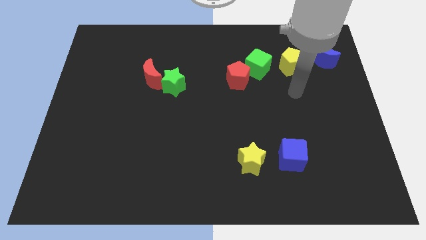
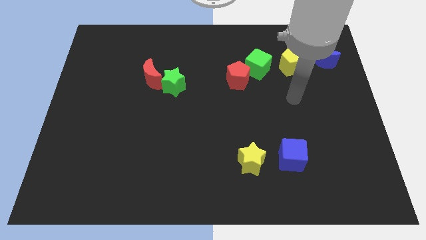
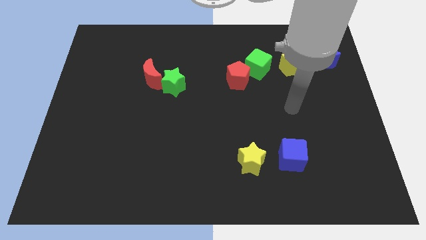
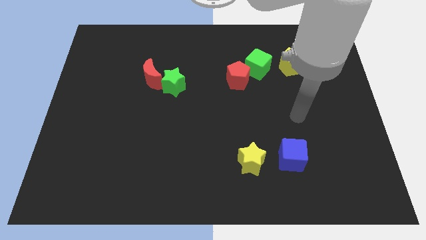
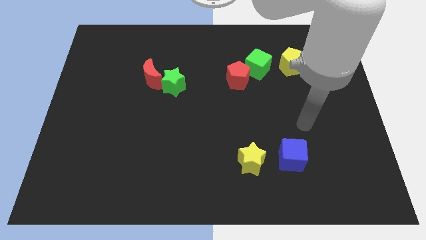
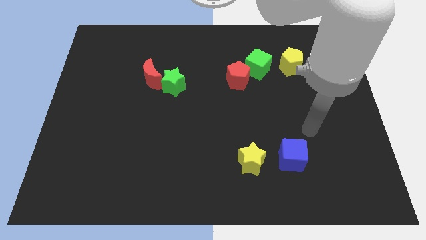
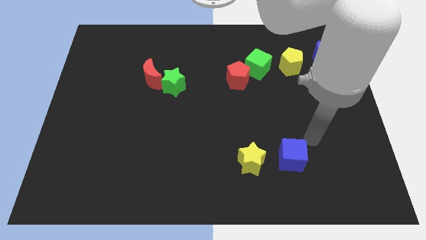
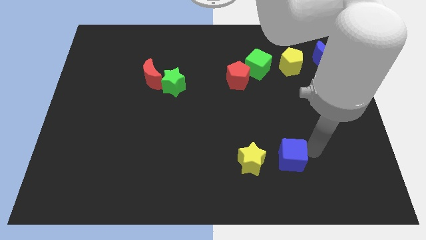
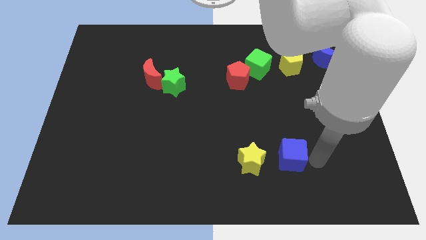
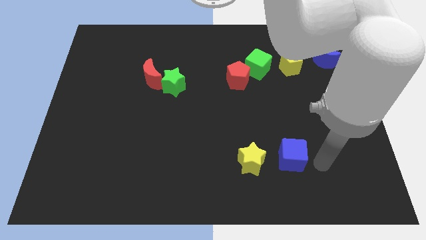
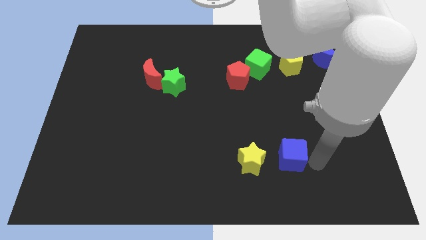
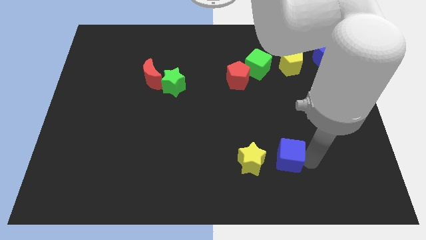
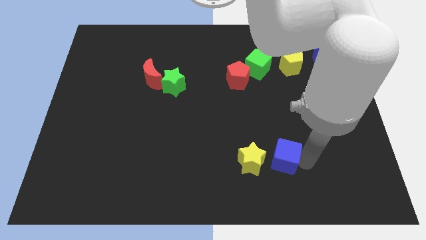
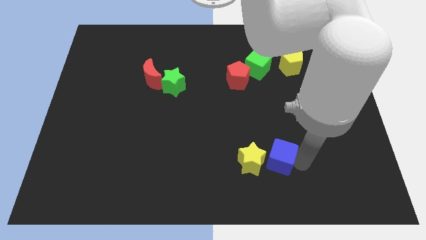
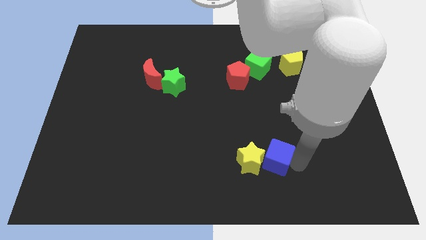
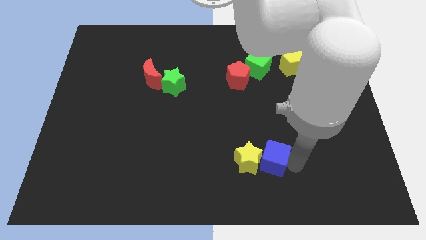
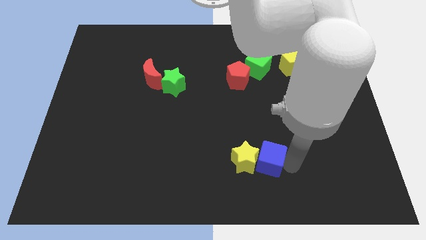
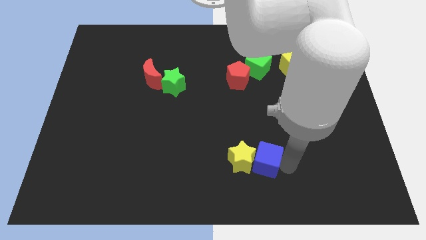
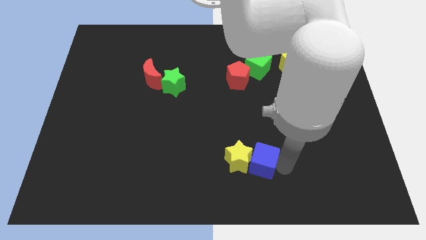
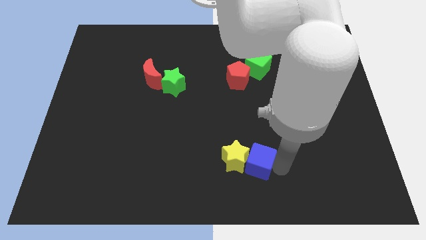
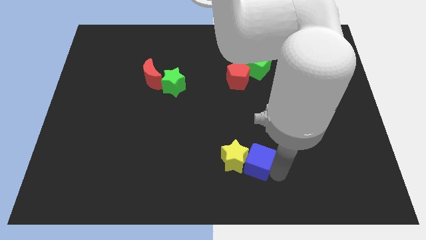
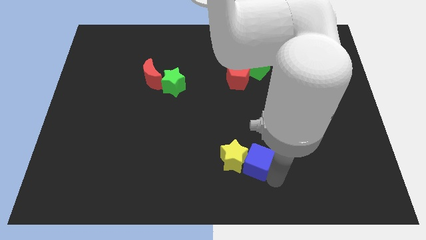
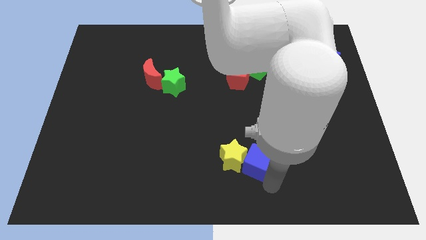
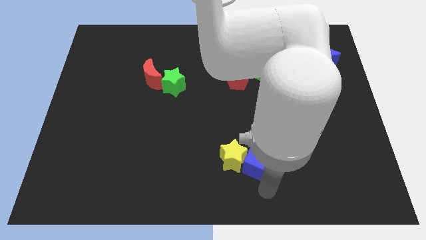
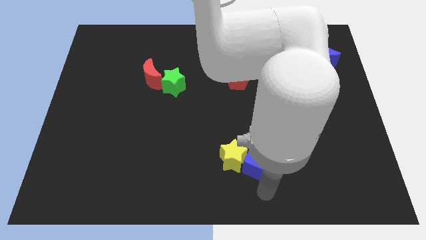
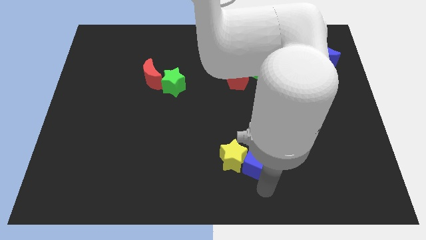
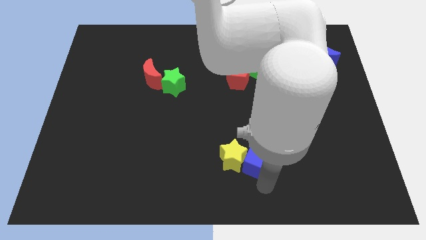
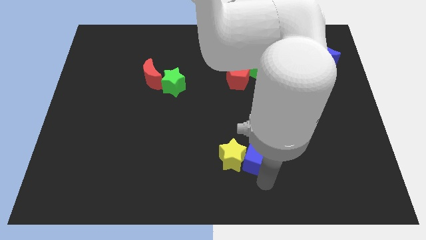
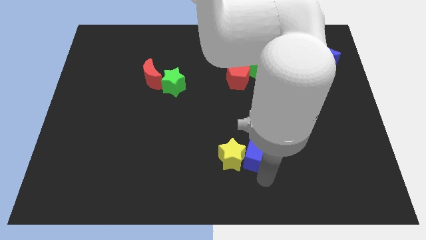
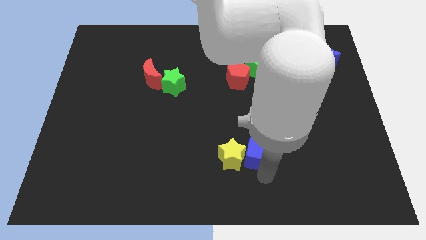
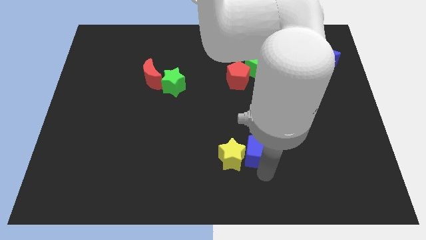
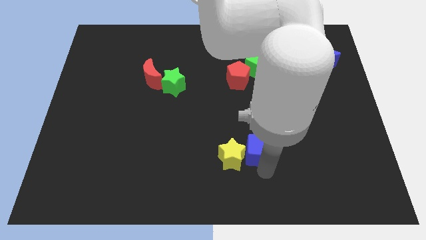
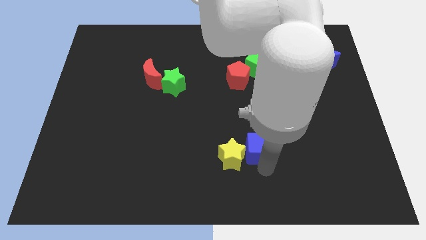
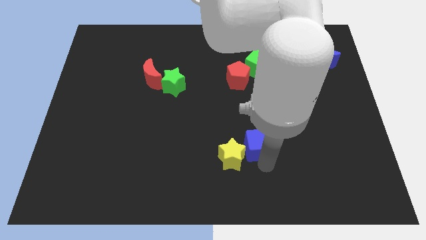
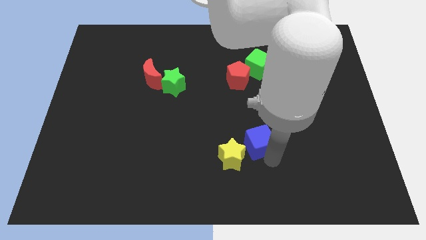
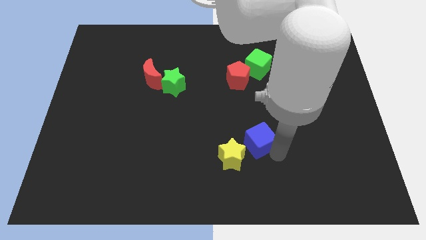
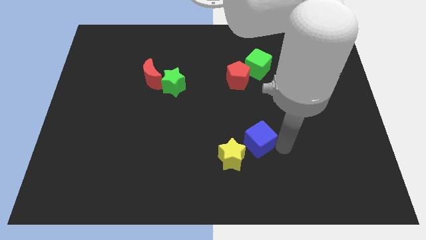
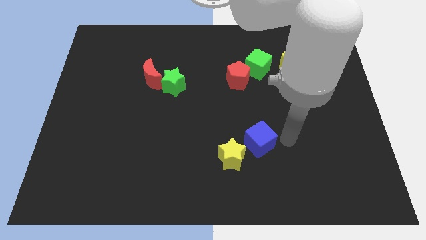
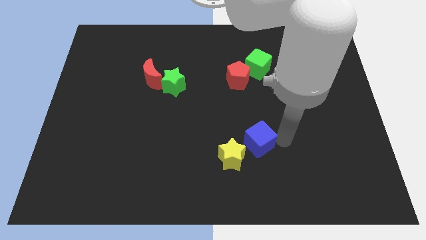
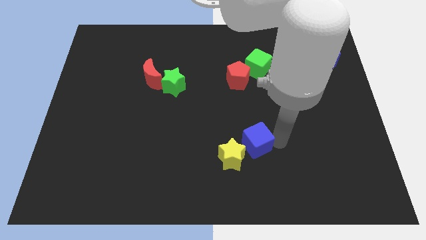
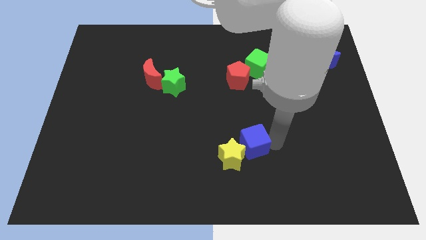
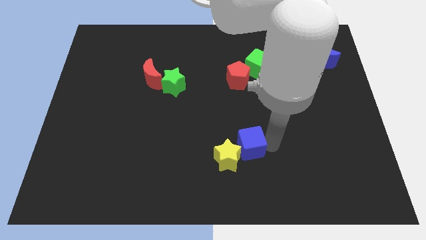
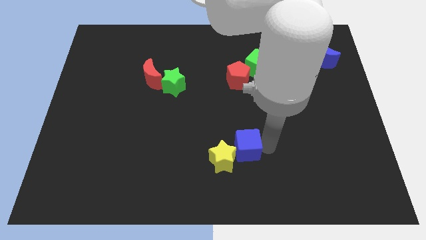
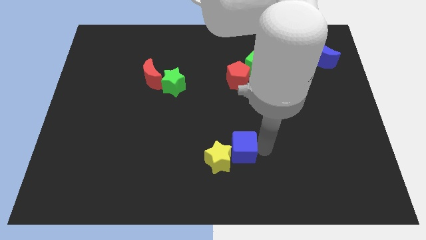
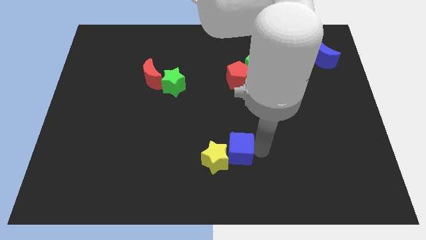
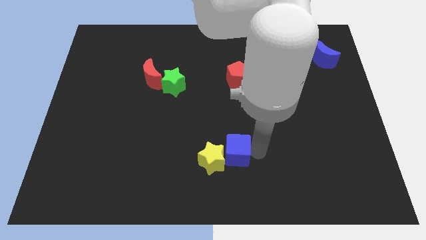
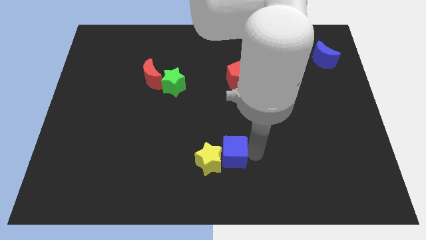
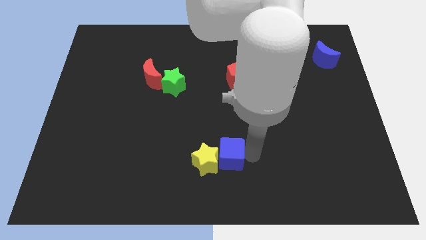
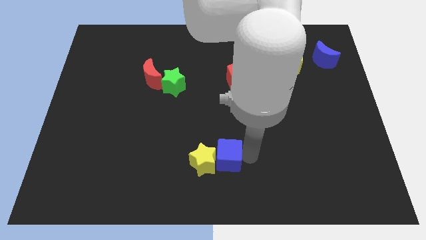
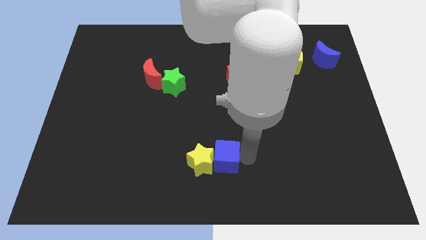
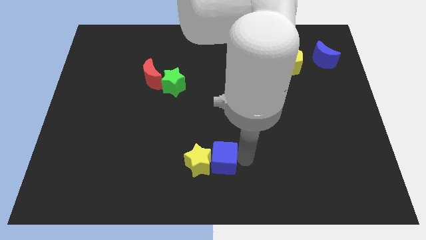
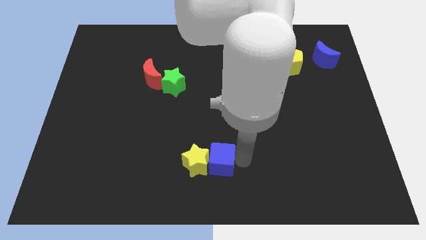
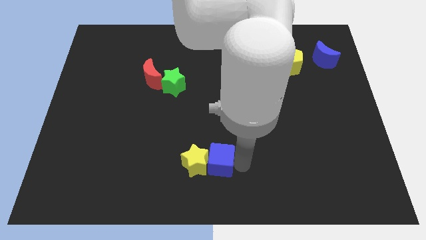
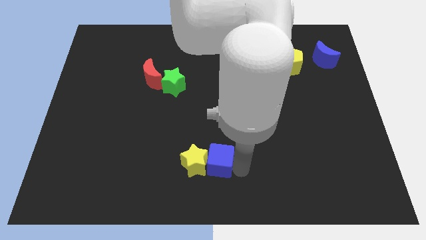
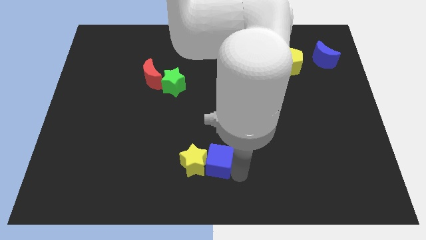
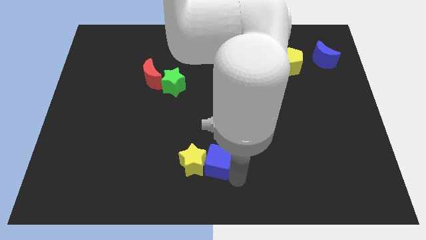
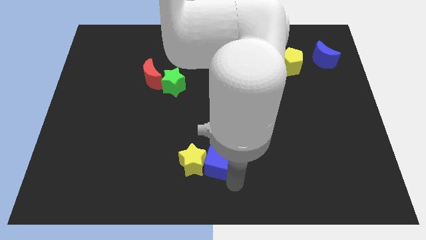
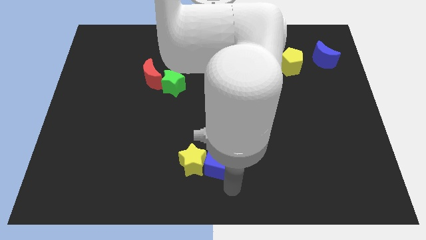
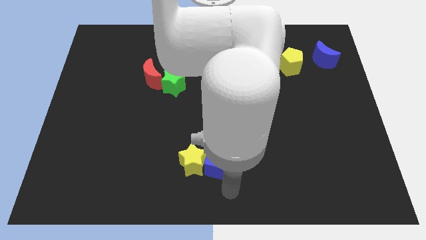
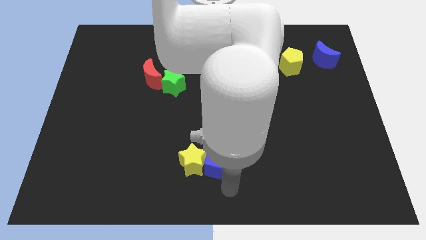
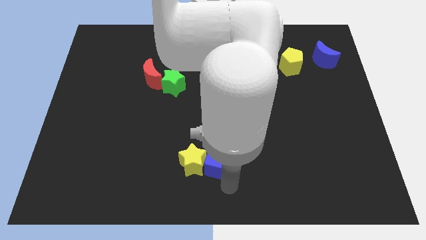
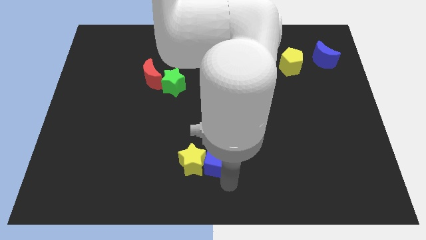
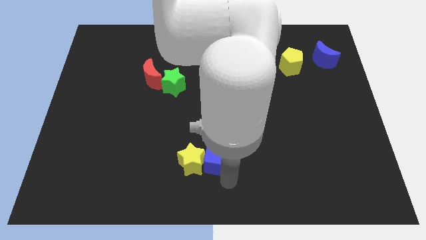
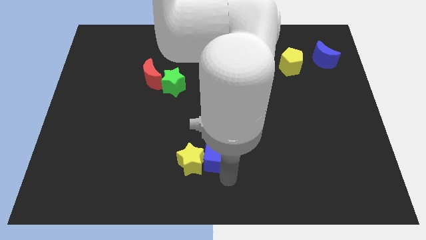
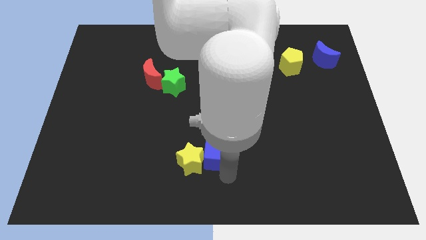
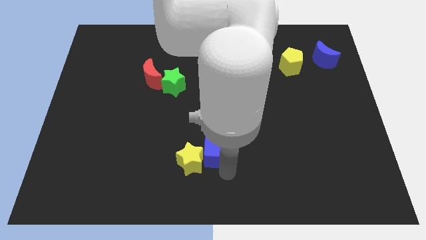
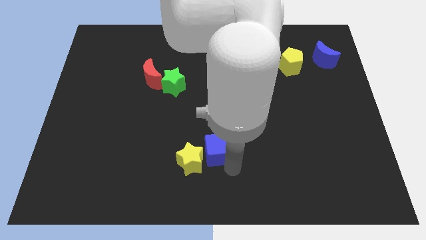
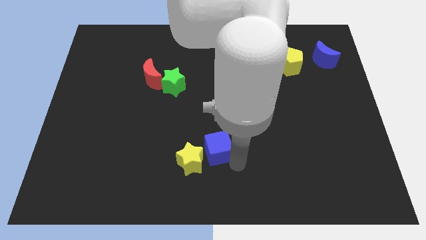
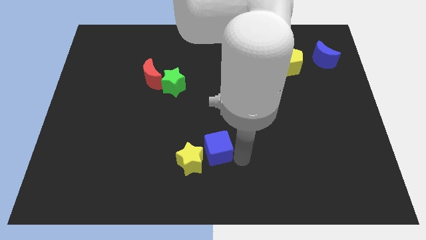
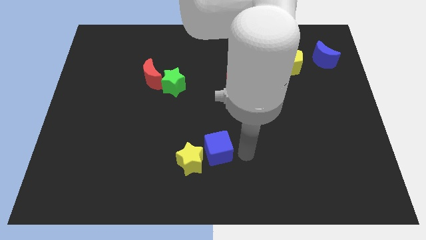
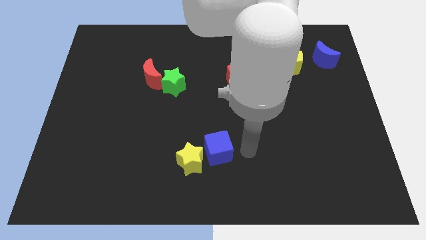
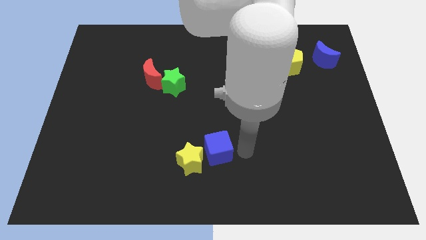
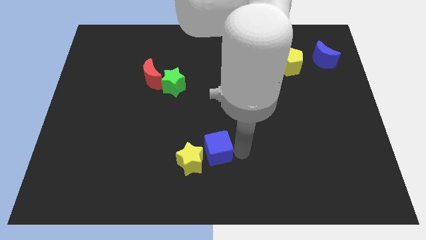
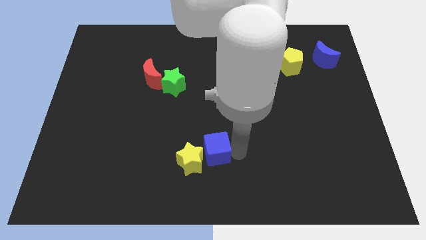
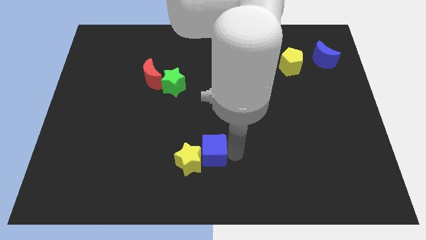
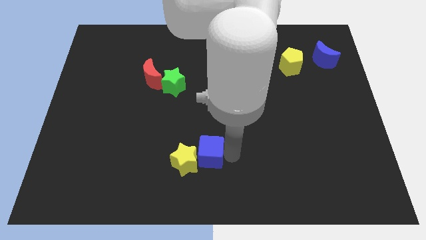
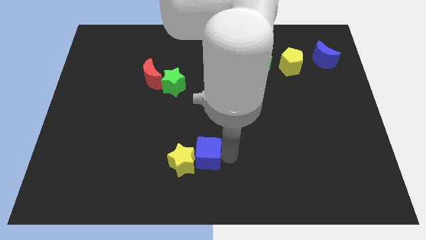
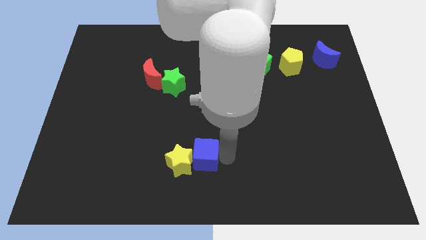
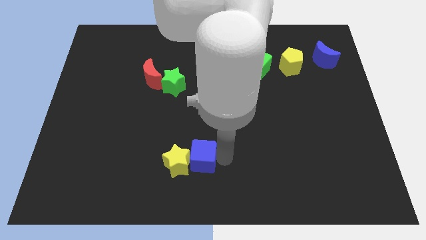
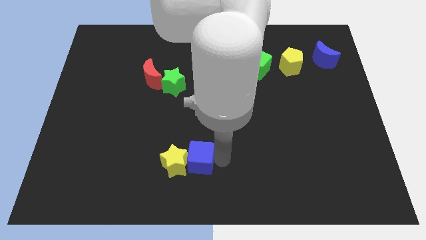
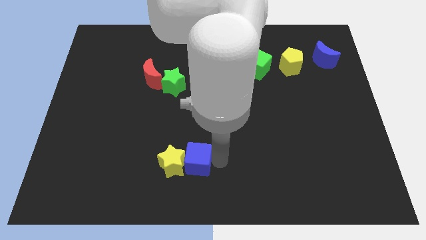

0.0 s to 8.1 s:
push the blue cube to the left

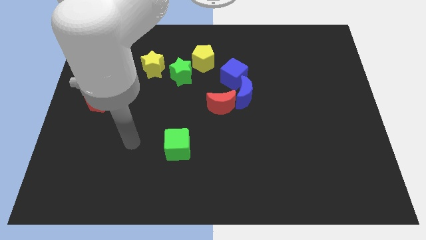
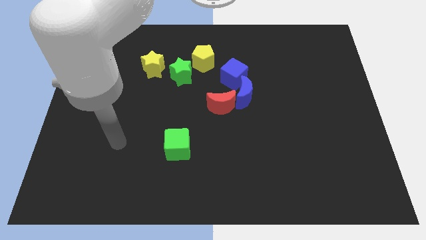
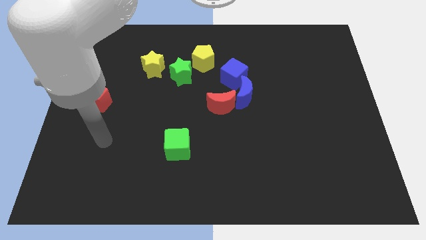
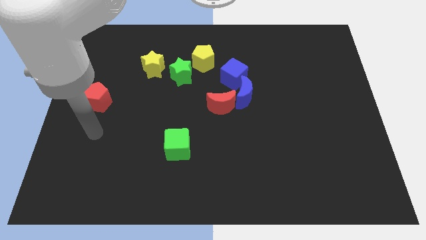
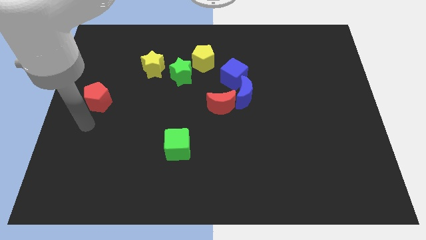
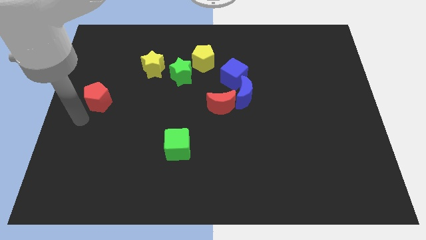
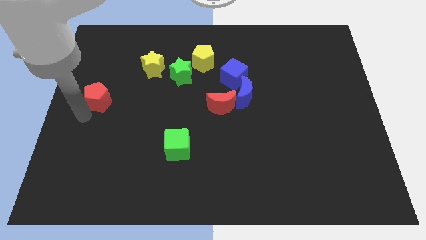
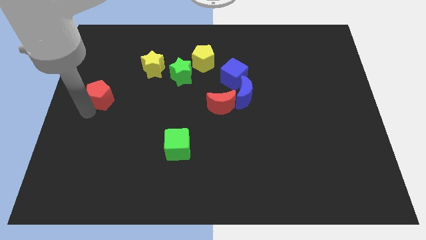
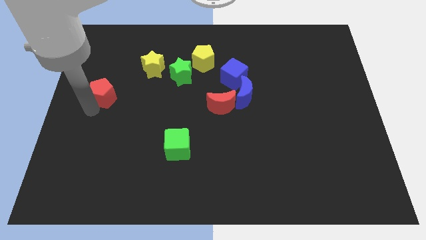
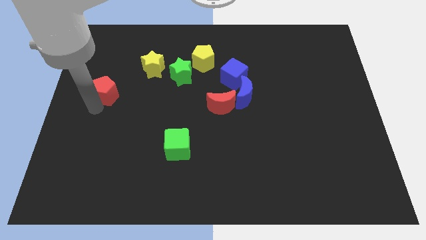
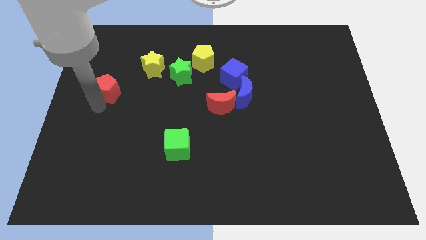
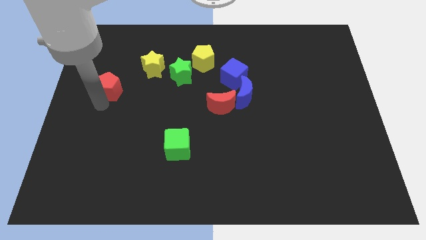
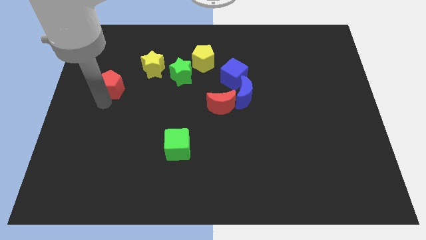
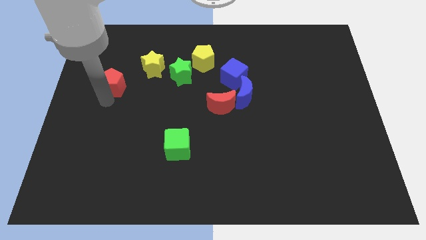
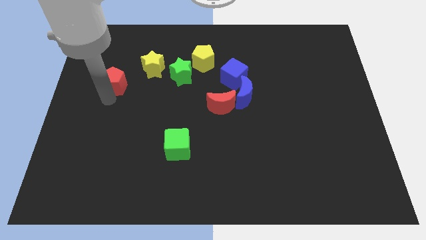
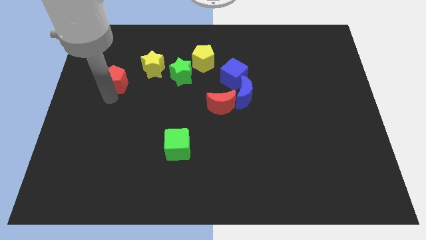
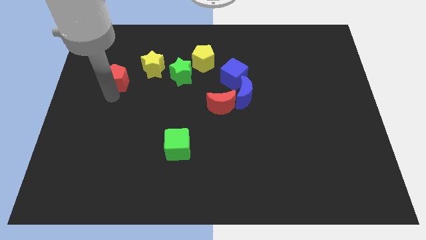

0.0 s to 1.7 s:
slide the red pentagon slightly diagonally up and to the right
